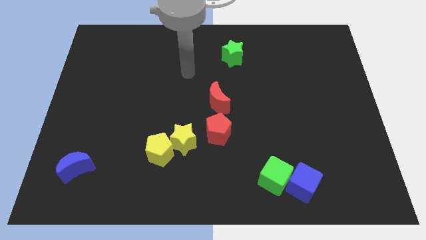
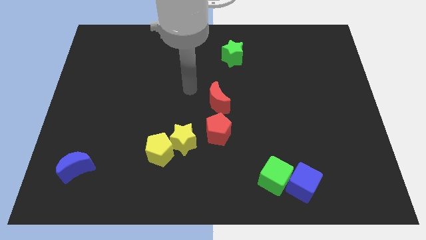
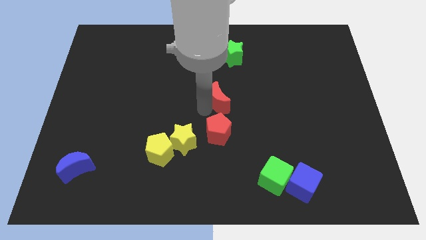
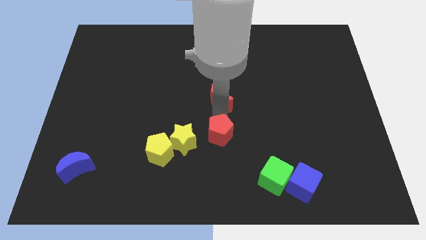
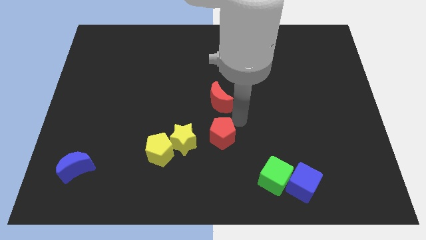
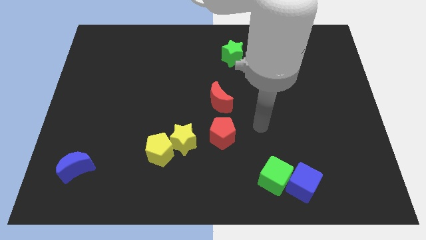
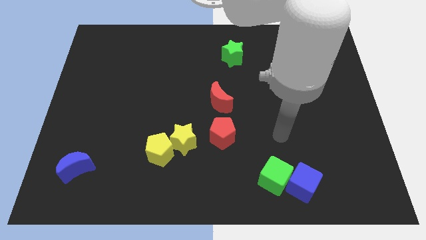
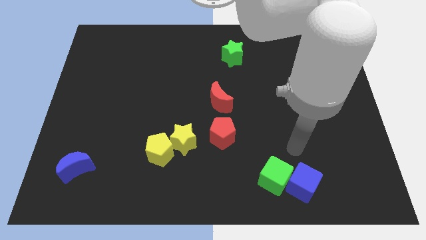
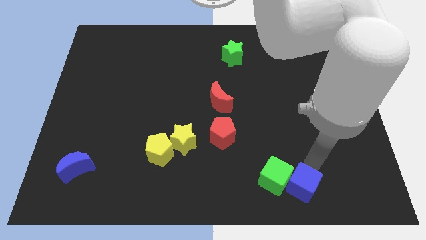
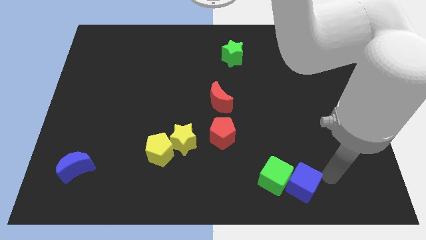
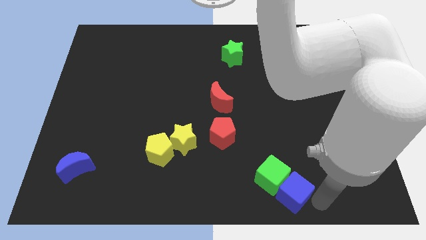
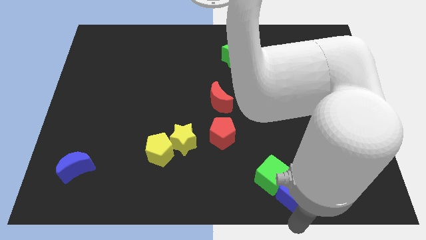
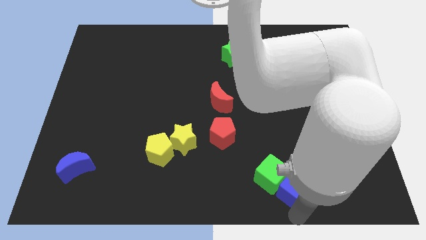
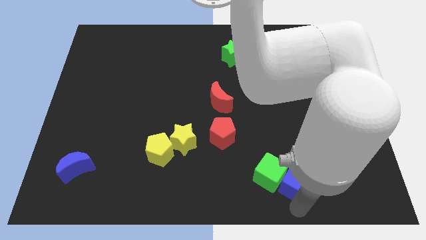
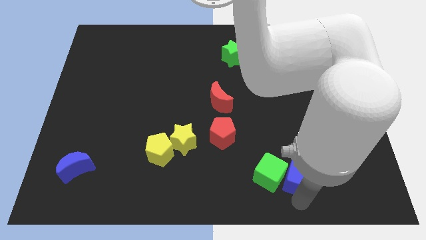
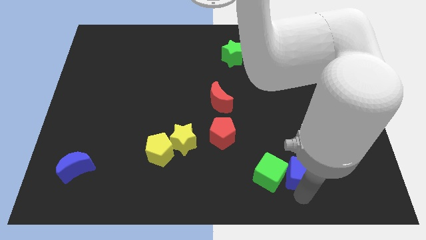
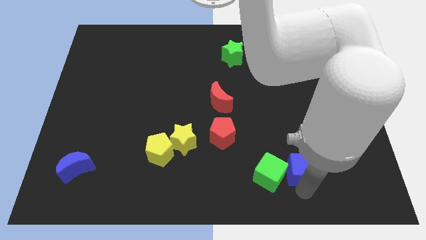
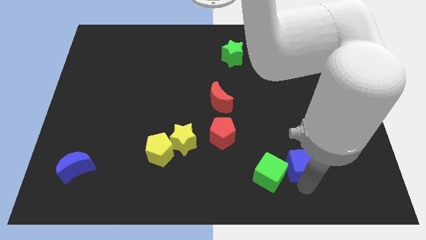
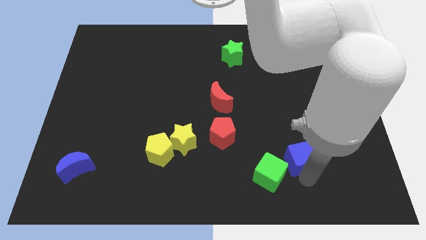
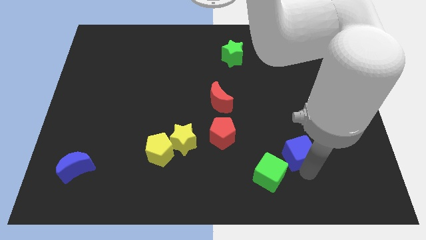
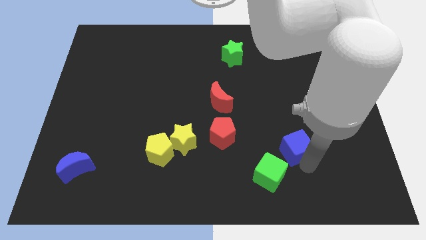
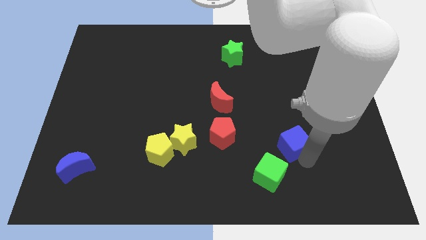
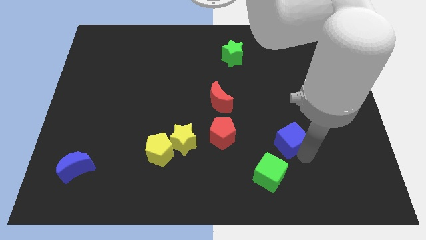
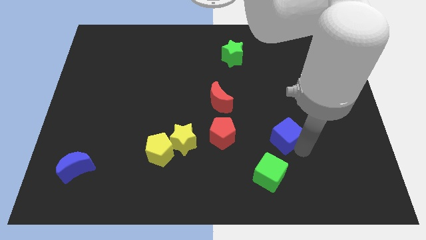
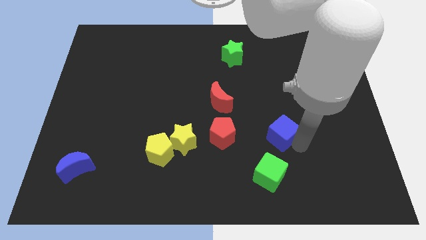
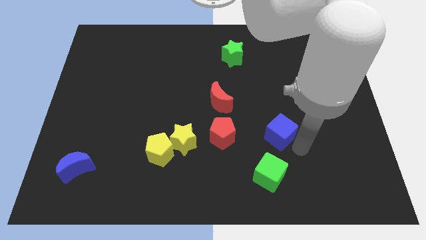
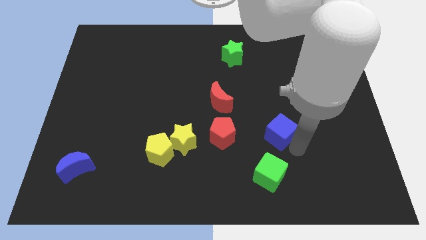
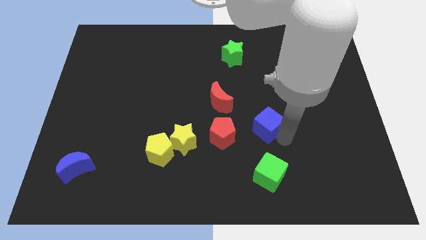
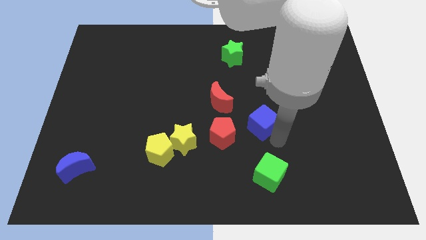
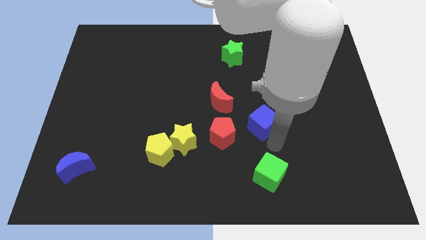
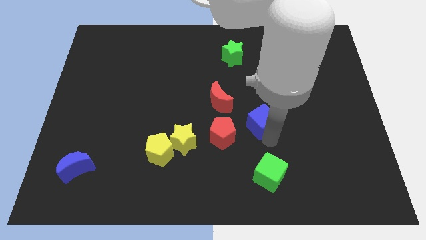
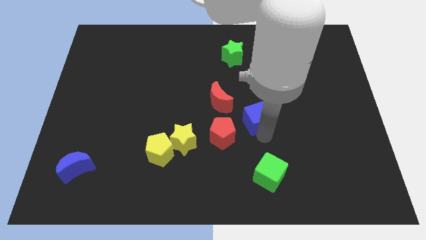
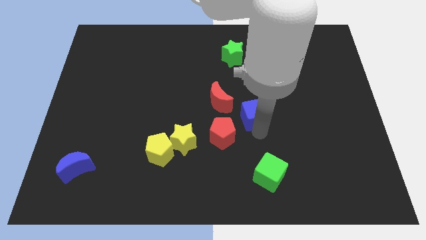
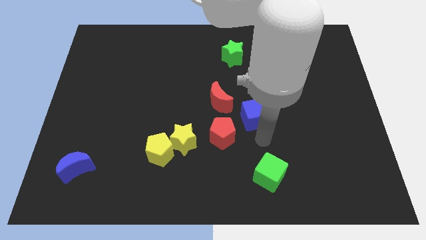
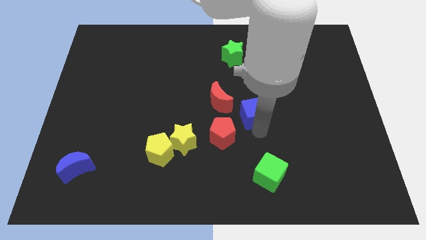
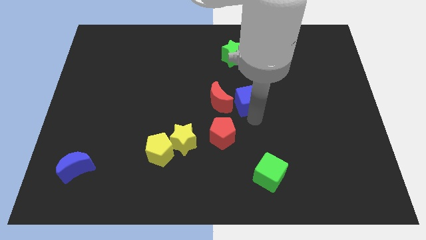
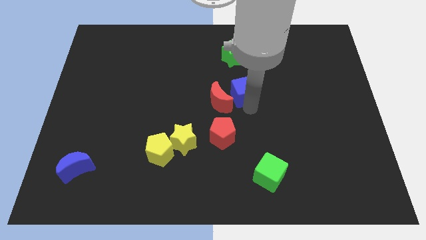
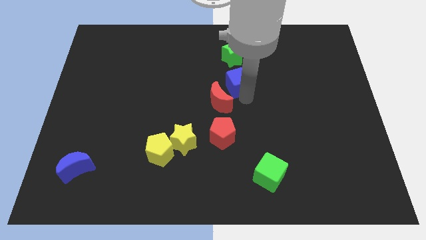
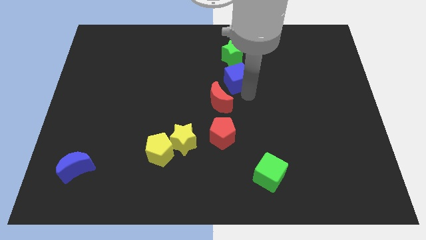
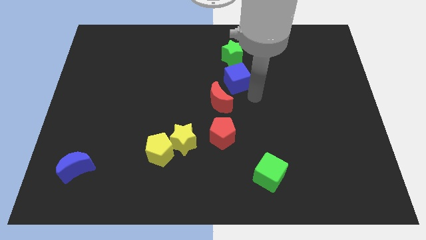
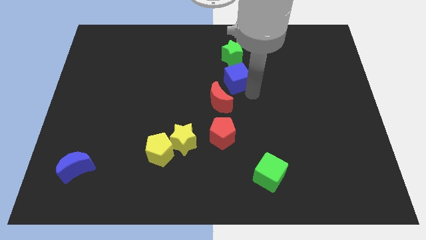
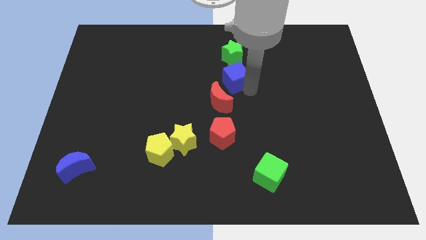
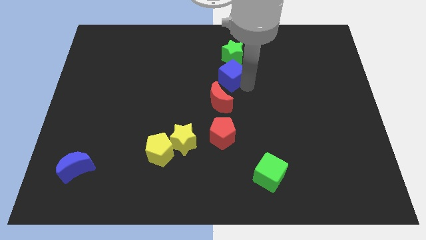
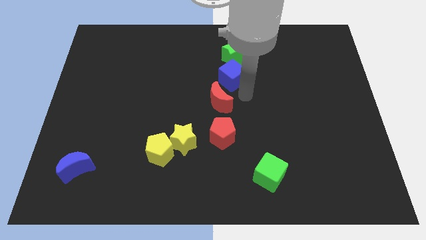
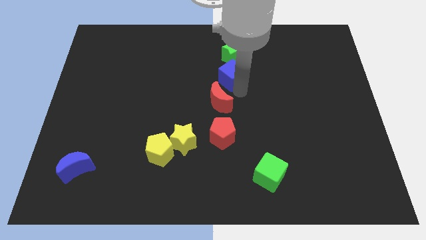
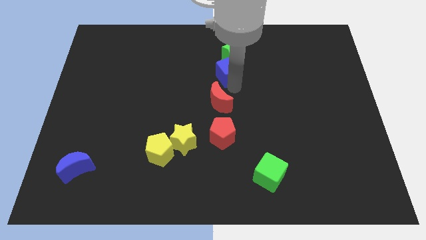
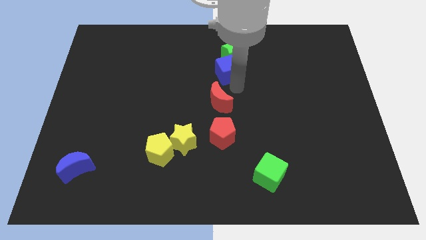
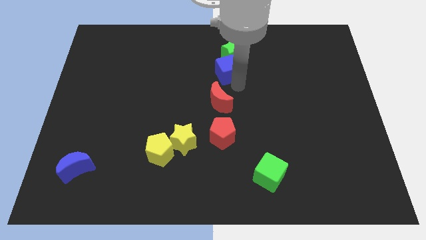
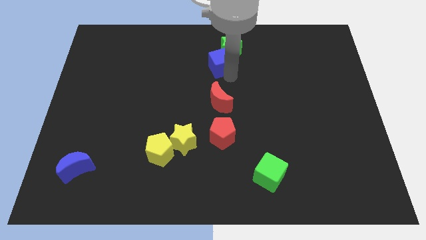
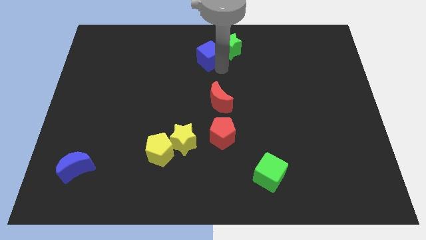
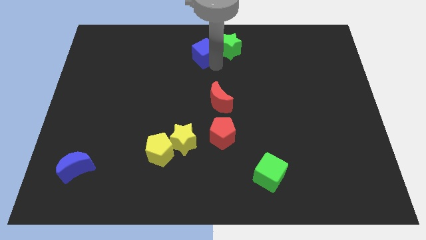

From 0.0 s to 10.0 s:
slide the blue cube to the top side

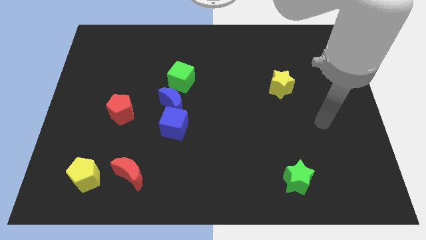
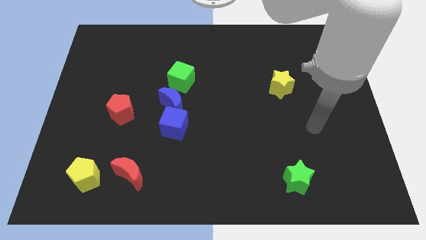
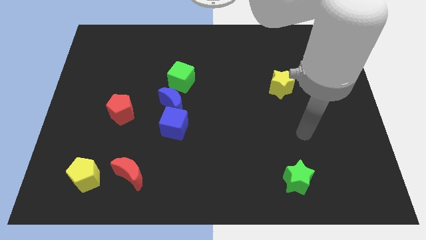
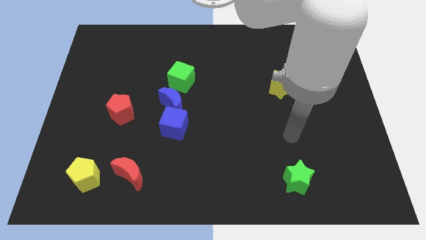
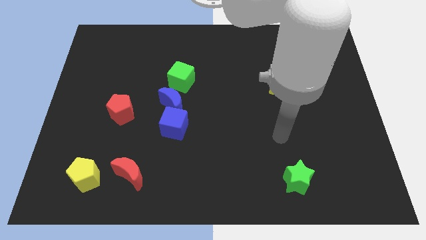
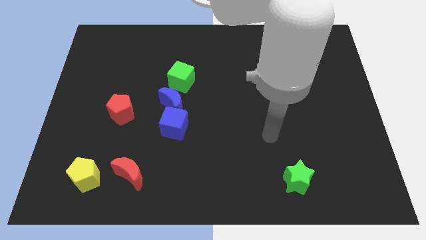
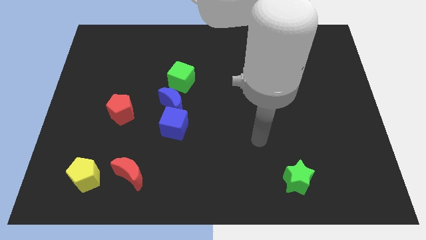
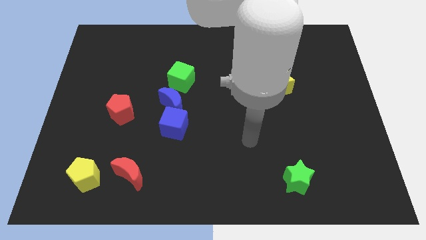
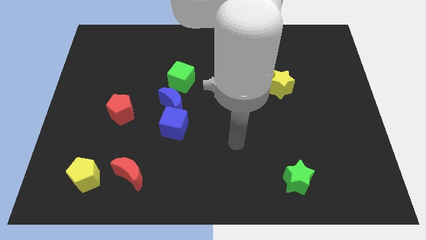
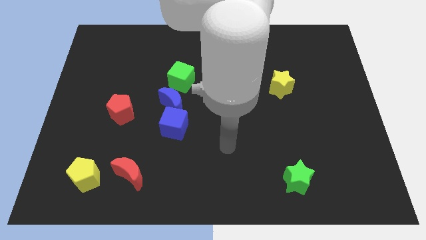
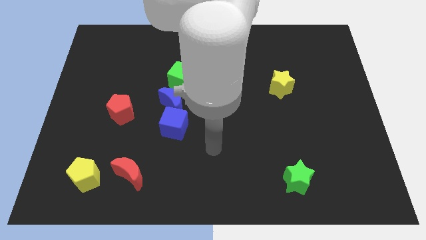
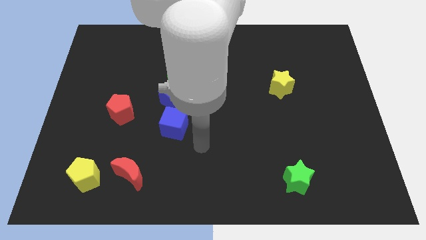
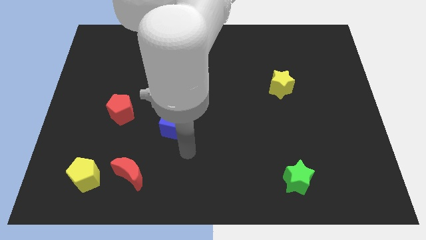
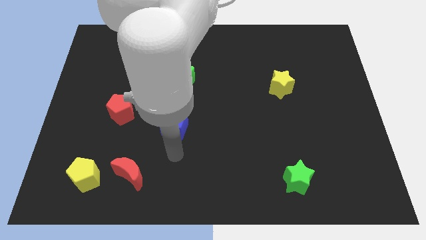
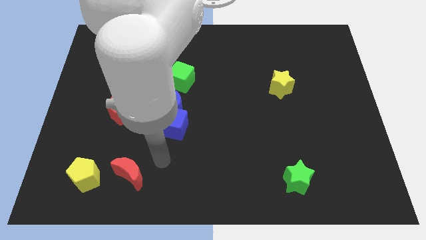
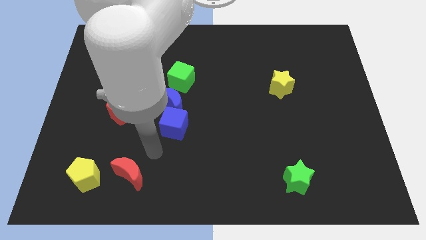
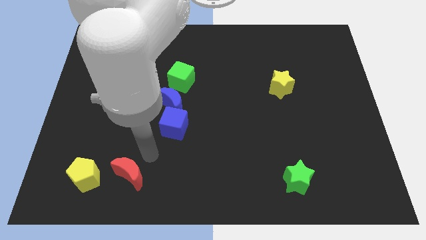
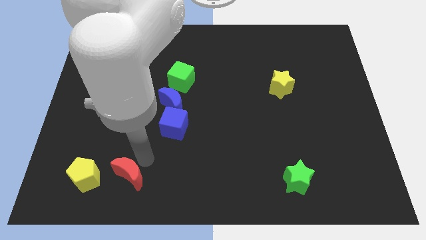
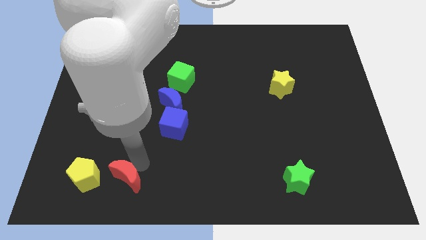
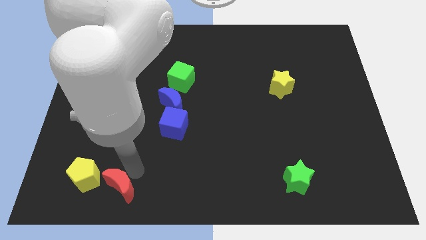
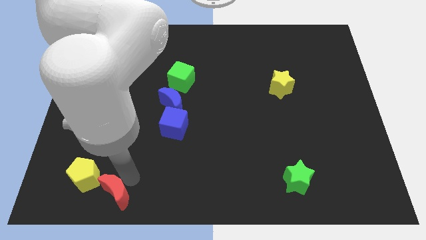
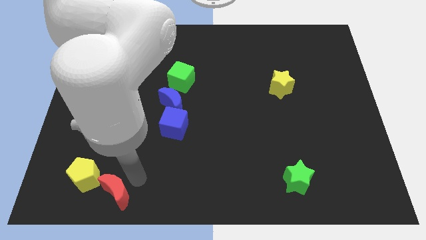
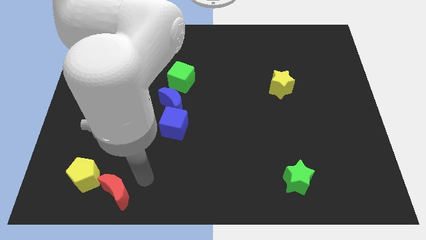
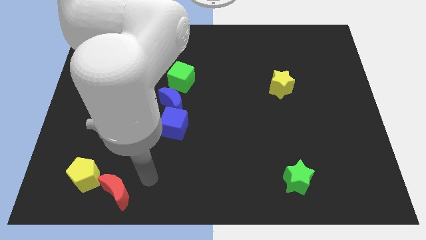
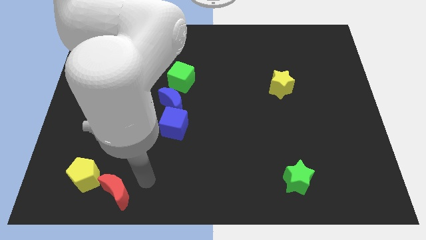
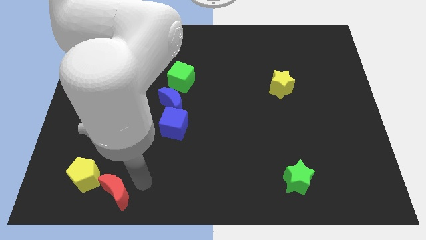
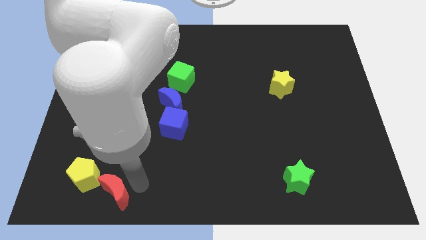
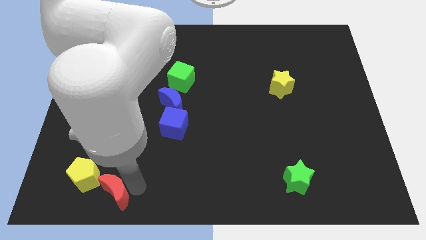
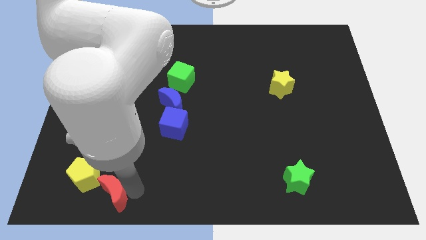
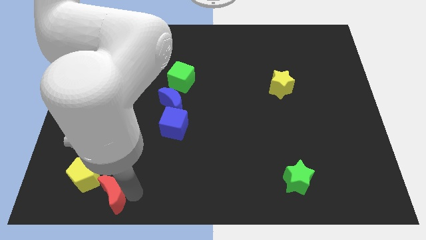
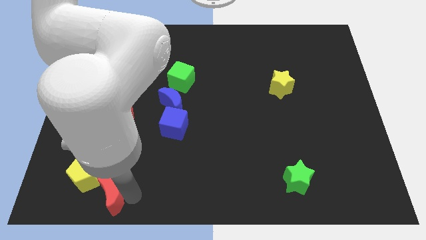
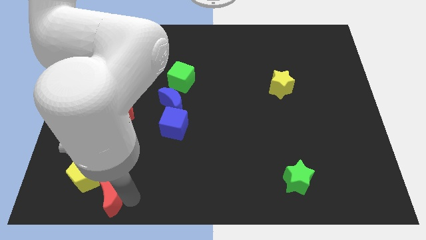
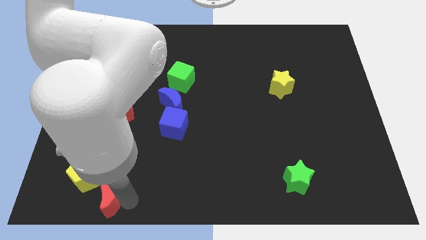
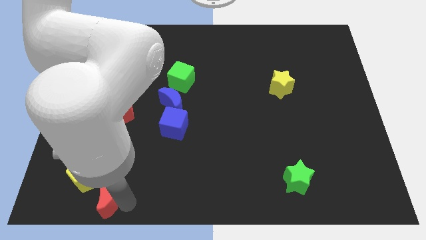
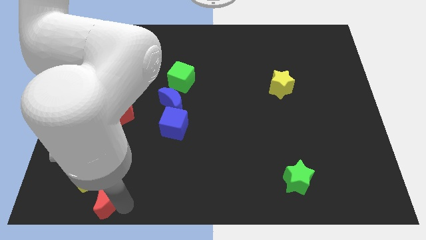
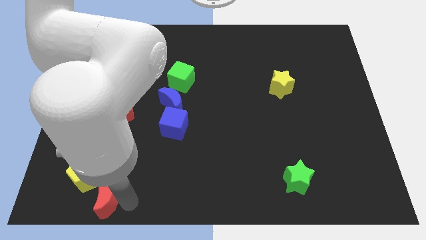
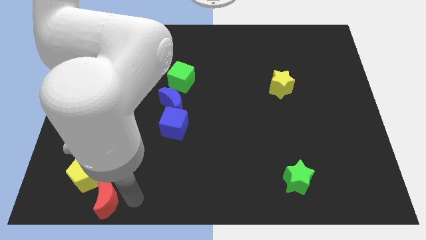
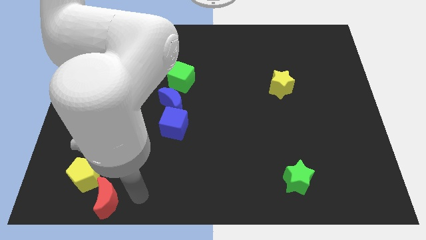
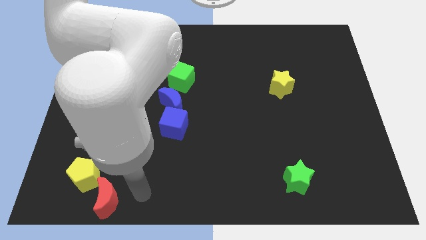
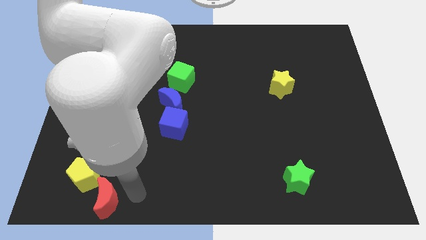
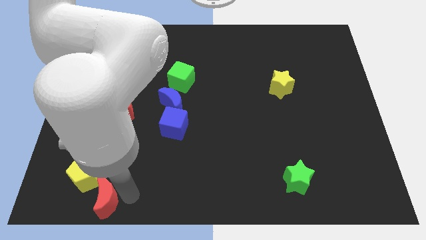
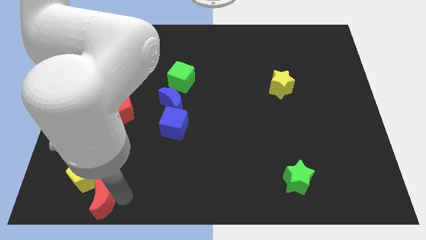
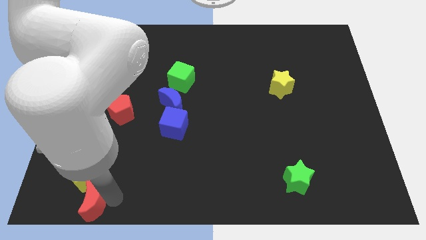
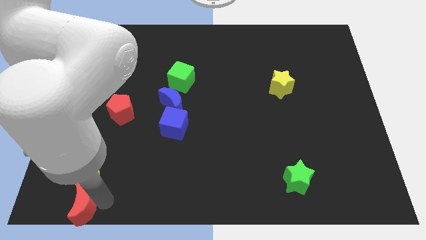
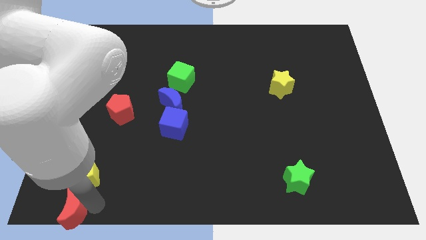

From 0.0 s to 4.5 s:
slide the red moon to the bottom left corner
